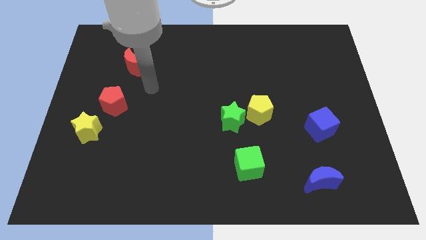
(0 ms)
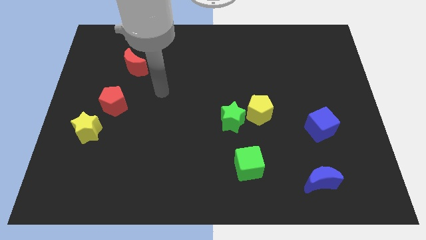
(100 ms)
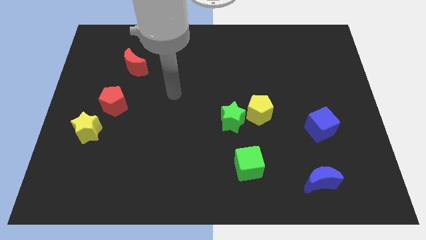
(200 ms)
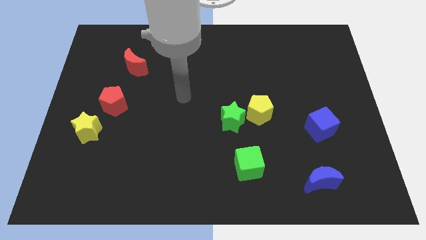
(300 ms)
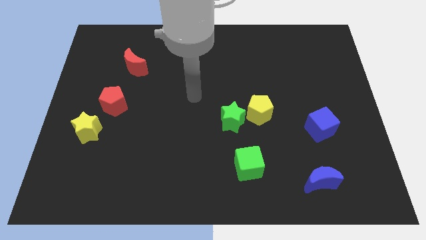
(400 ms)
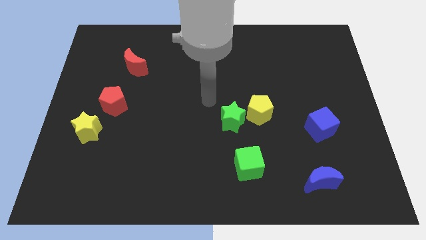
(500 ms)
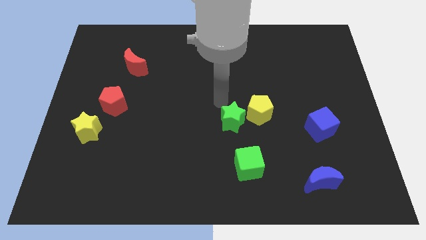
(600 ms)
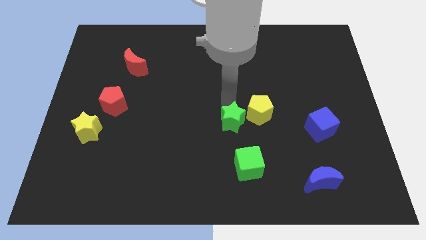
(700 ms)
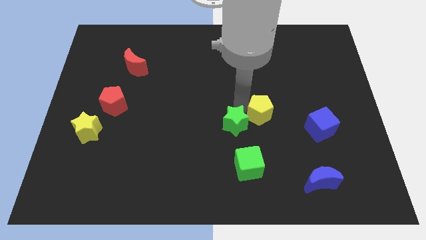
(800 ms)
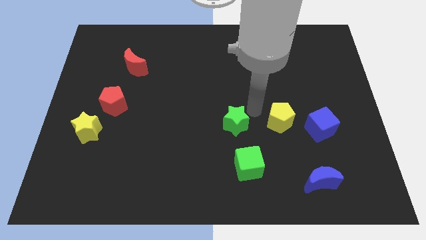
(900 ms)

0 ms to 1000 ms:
move the green star away from the yellow pentagon

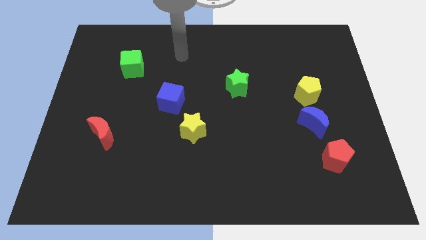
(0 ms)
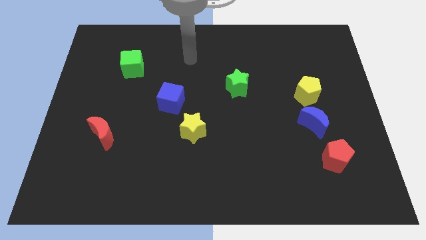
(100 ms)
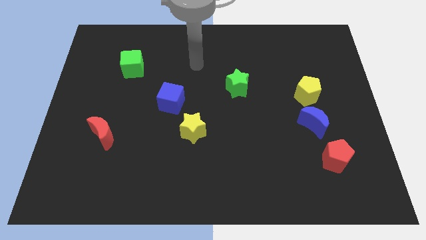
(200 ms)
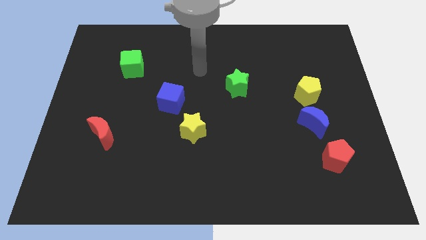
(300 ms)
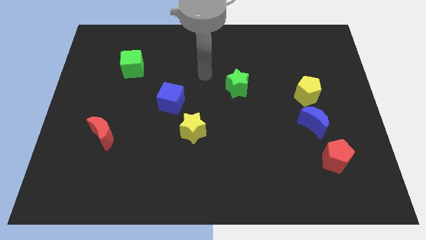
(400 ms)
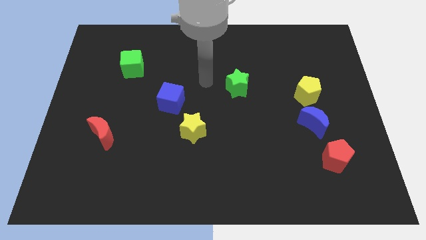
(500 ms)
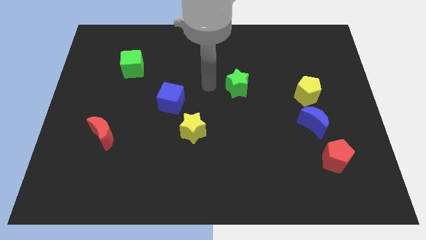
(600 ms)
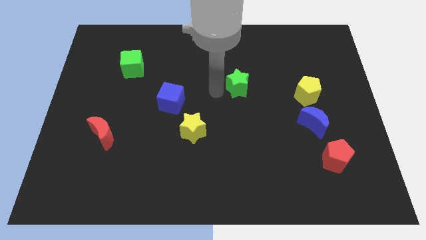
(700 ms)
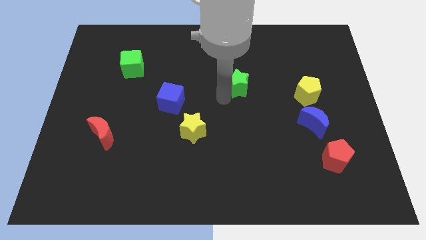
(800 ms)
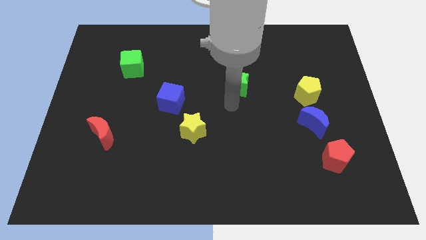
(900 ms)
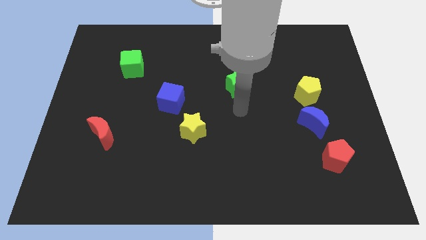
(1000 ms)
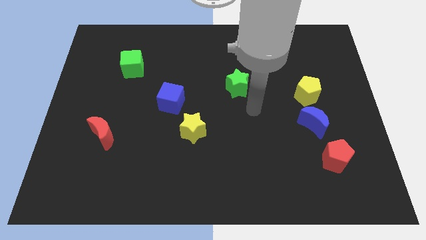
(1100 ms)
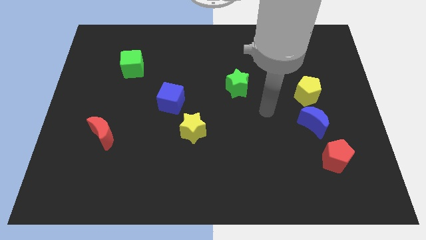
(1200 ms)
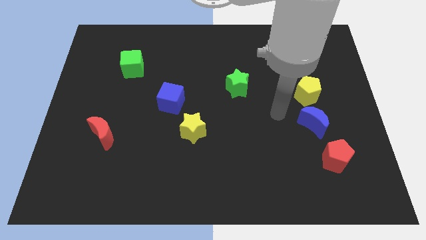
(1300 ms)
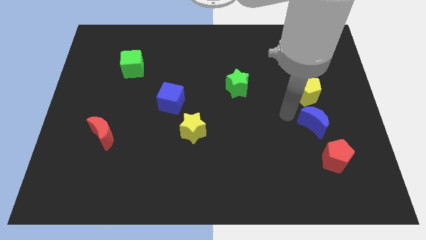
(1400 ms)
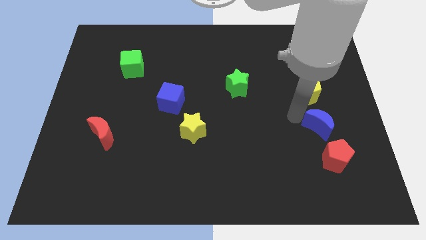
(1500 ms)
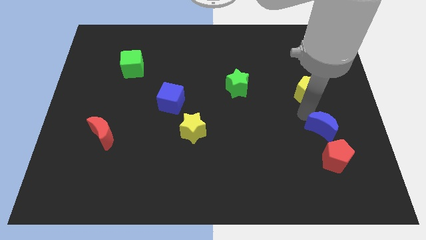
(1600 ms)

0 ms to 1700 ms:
move the yellow pentagon away from the blue moon

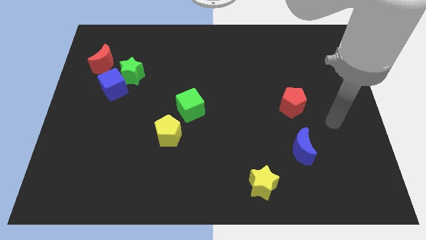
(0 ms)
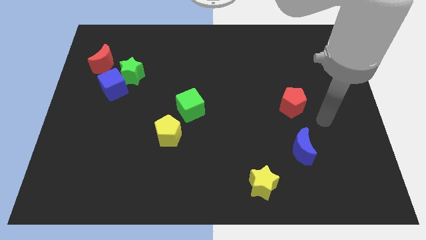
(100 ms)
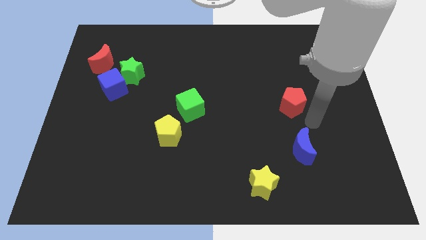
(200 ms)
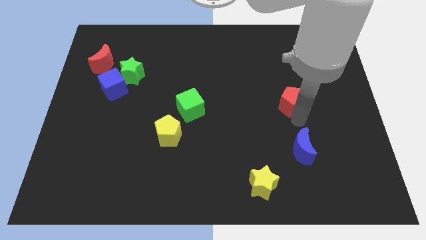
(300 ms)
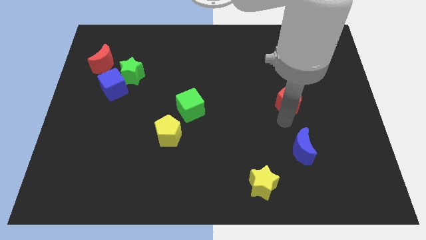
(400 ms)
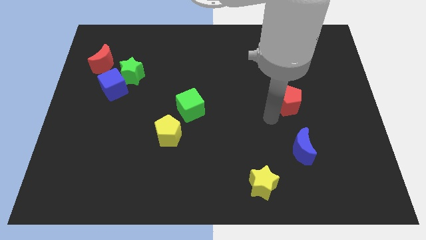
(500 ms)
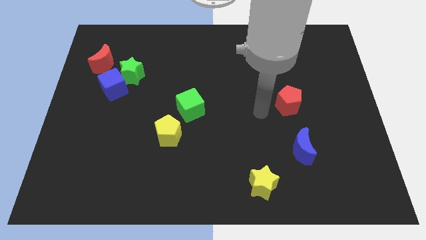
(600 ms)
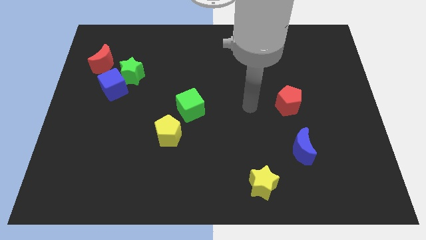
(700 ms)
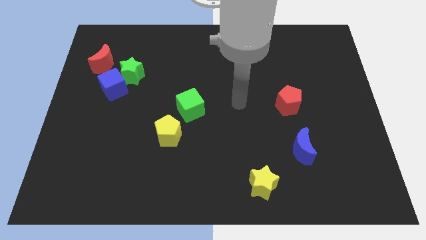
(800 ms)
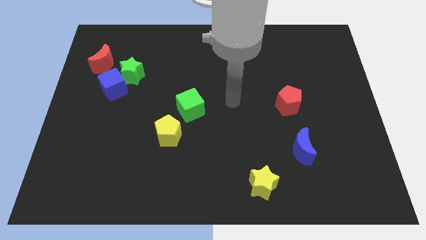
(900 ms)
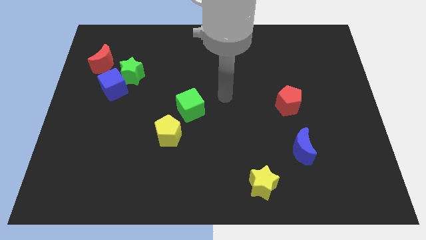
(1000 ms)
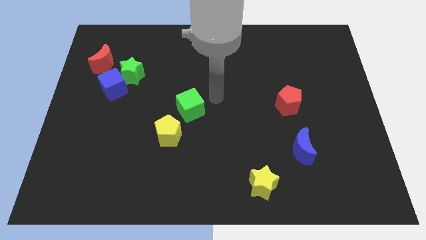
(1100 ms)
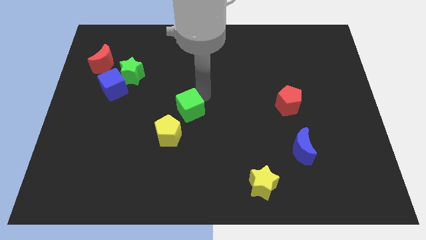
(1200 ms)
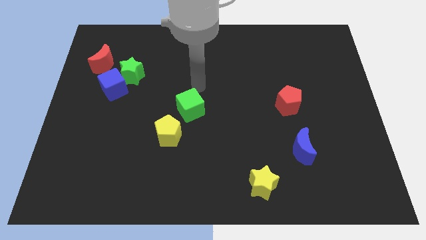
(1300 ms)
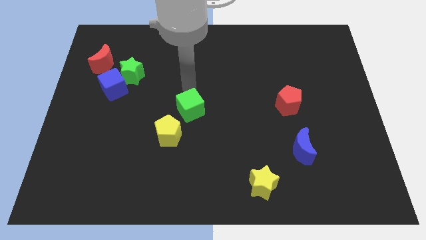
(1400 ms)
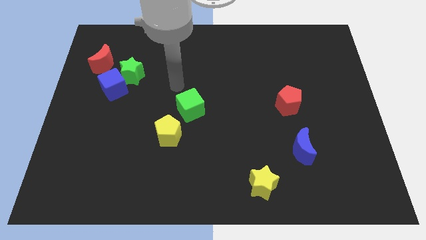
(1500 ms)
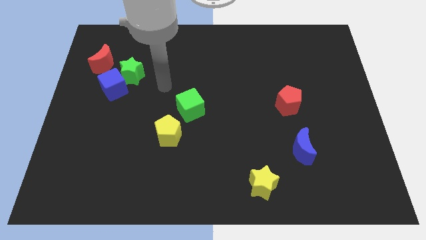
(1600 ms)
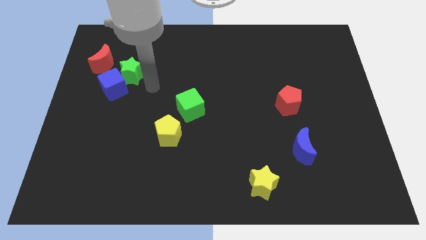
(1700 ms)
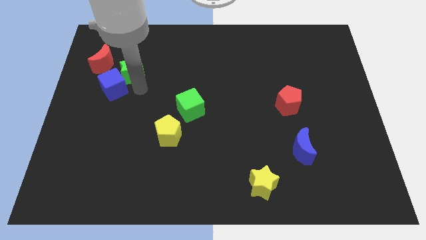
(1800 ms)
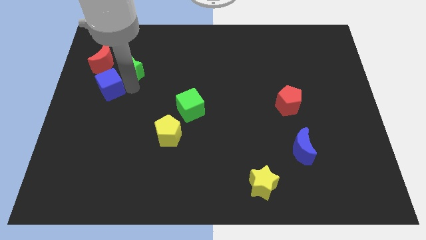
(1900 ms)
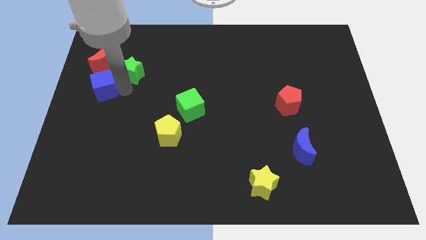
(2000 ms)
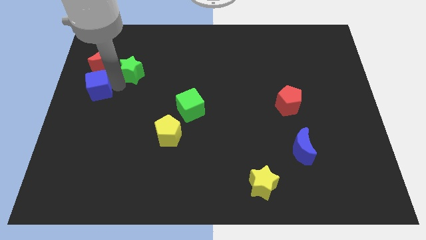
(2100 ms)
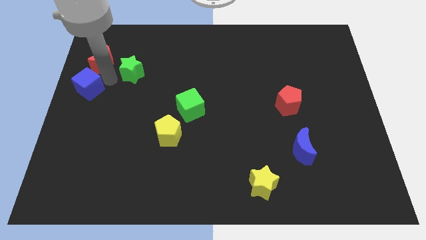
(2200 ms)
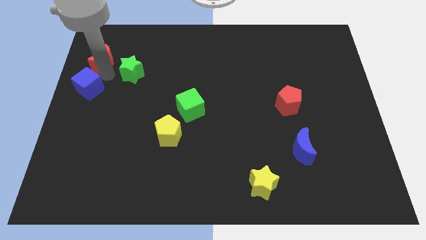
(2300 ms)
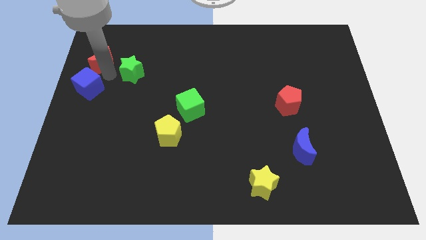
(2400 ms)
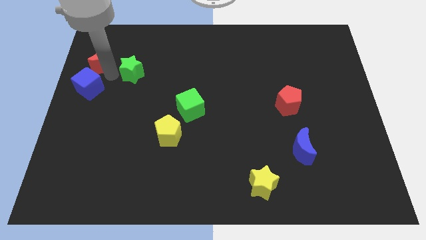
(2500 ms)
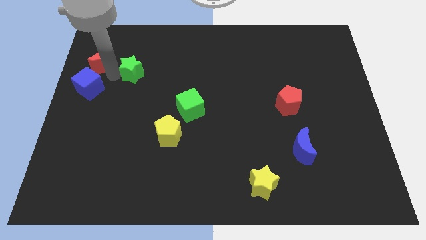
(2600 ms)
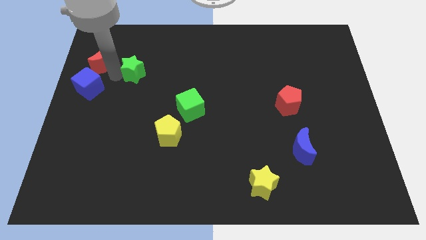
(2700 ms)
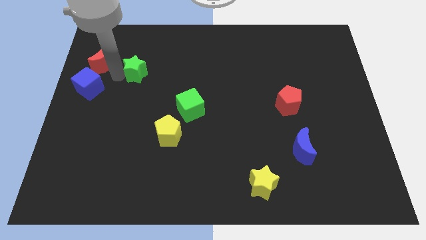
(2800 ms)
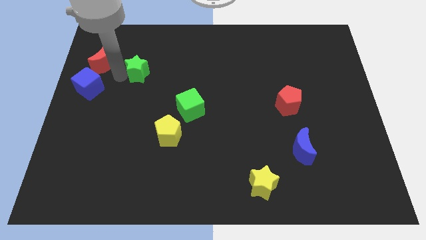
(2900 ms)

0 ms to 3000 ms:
pull the green star apart from the blue cube and red moon

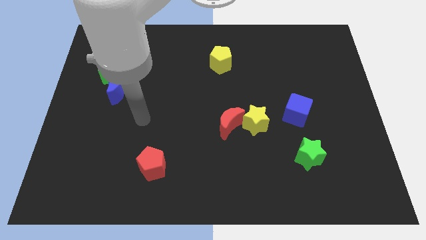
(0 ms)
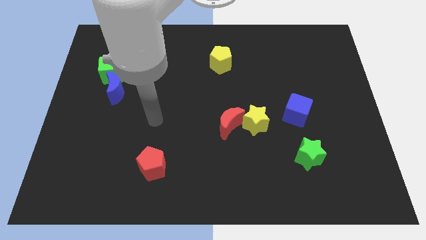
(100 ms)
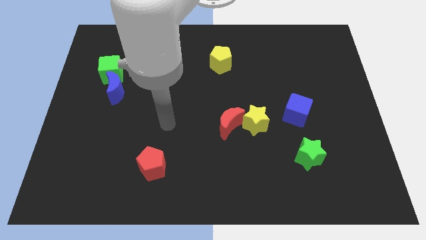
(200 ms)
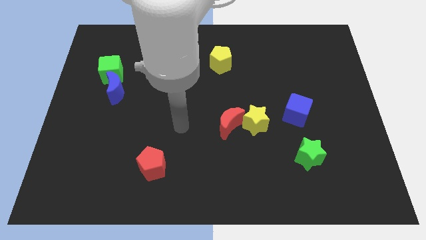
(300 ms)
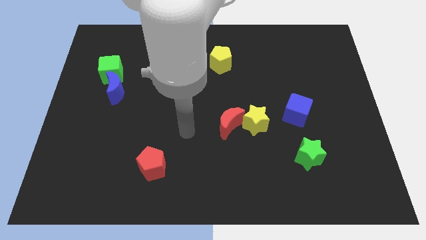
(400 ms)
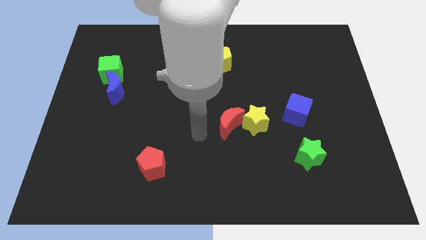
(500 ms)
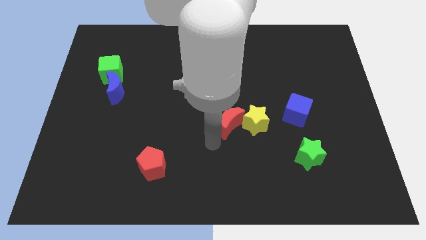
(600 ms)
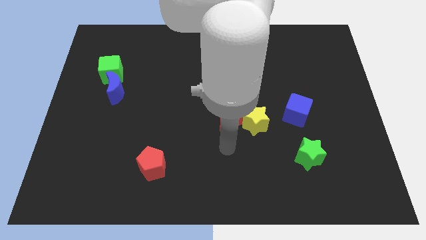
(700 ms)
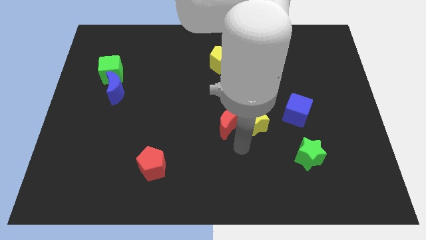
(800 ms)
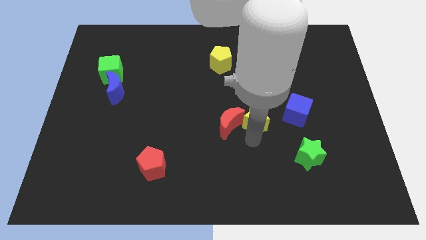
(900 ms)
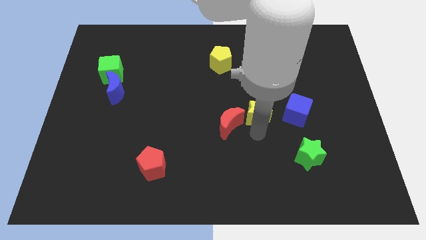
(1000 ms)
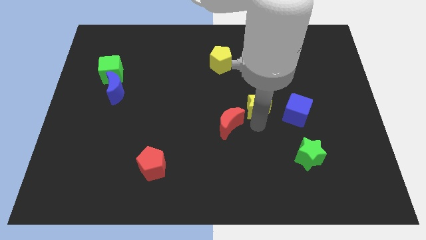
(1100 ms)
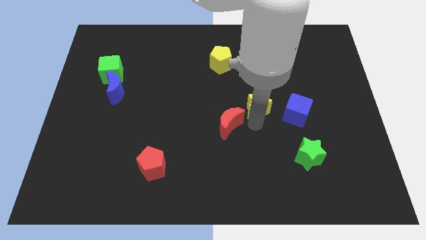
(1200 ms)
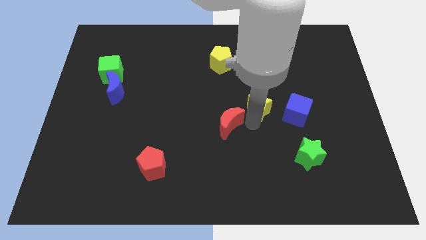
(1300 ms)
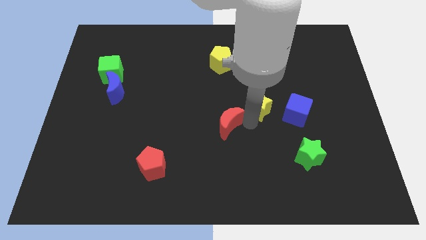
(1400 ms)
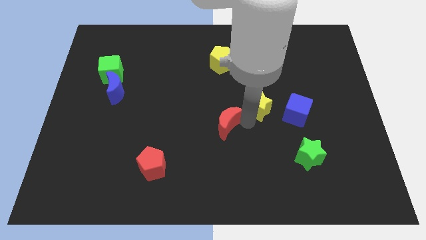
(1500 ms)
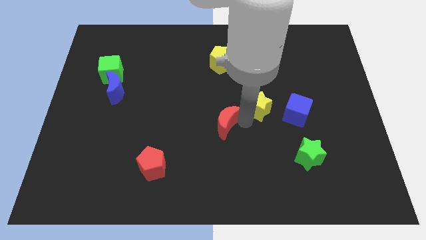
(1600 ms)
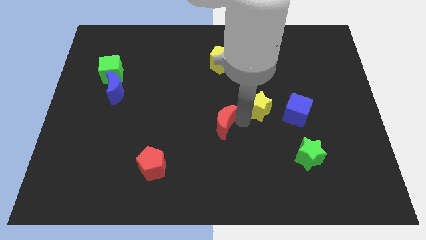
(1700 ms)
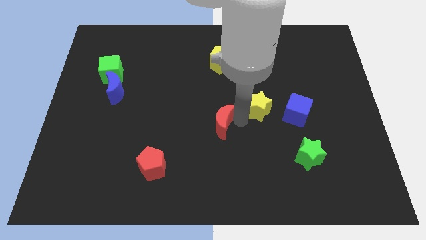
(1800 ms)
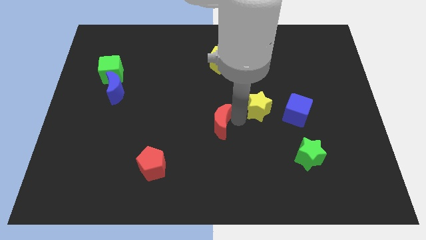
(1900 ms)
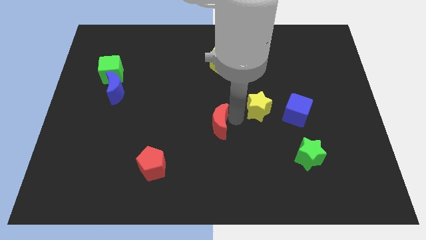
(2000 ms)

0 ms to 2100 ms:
separate the red moon from the yellow star

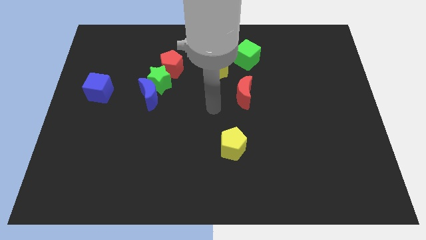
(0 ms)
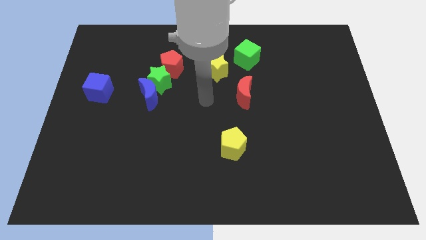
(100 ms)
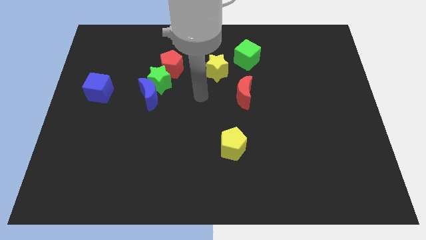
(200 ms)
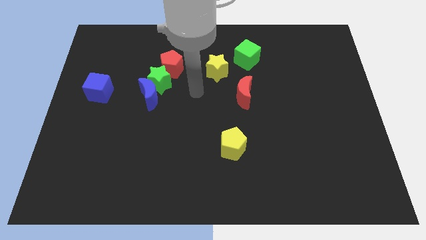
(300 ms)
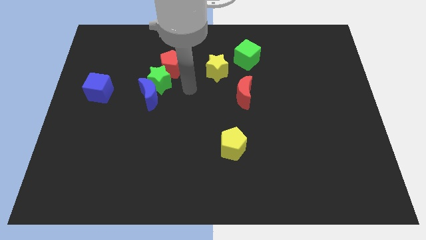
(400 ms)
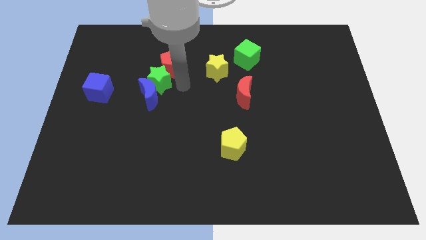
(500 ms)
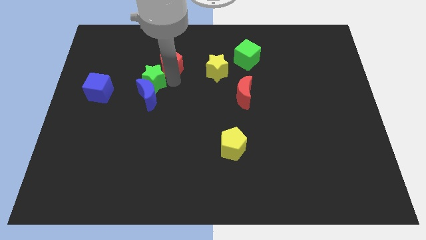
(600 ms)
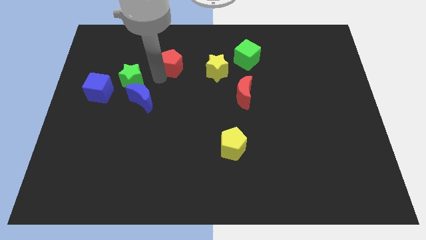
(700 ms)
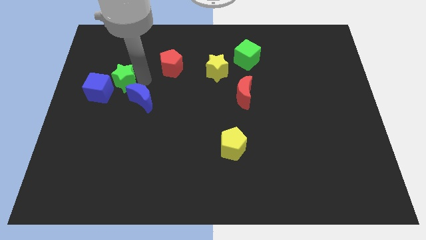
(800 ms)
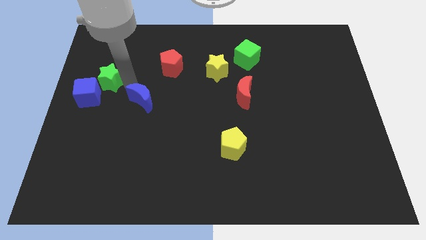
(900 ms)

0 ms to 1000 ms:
pull the blue moon apart from the green star

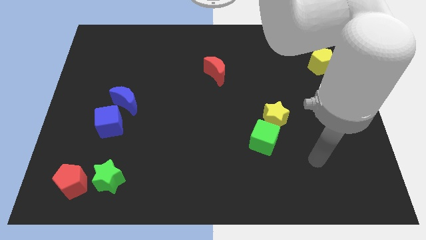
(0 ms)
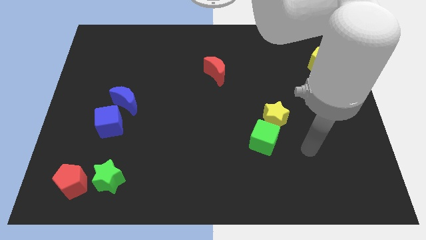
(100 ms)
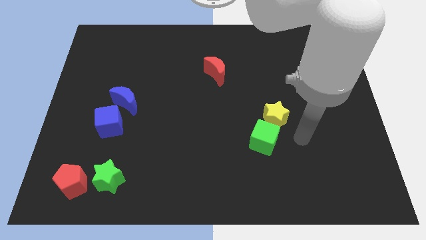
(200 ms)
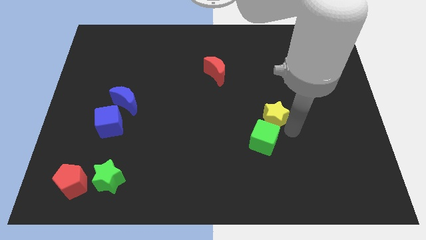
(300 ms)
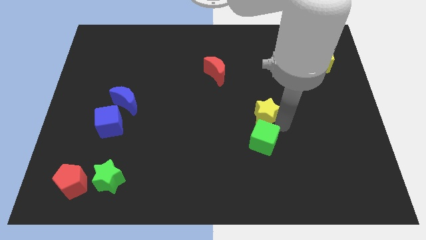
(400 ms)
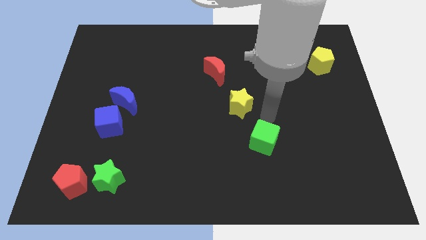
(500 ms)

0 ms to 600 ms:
move the green cube away from the yellow star
